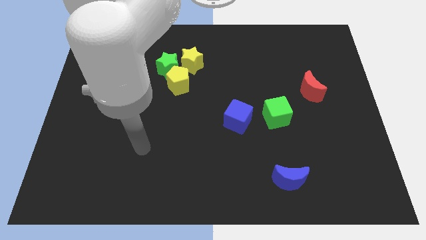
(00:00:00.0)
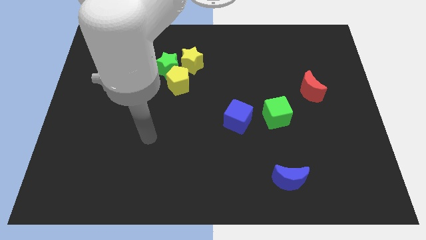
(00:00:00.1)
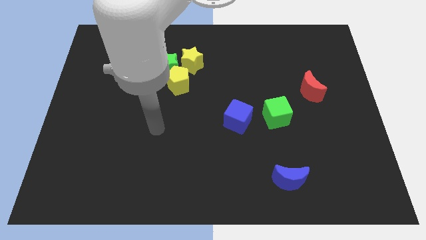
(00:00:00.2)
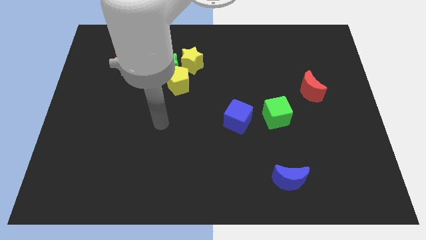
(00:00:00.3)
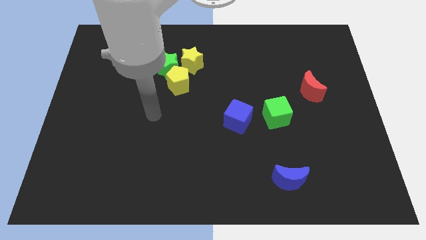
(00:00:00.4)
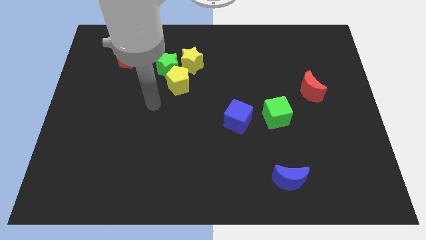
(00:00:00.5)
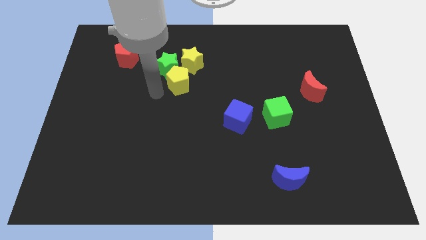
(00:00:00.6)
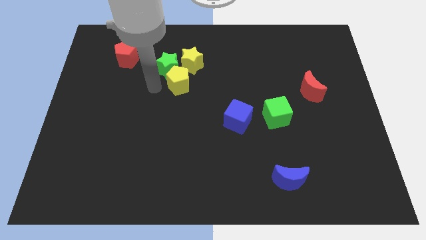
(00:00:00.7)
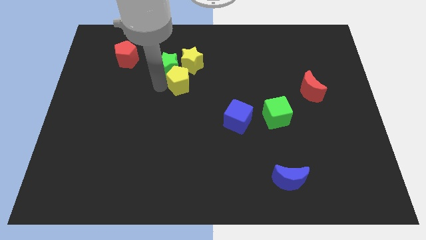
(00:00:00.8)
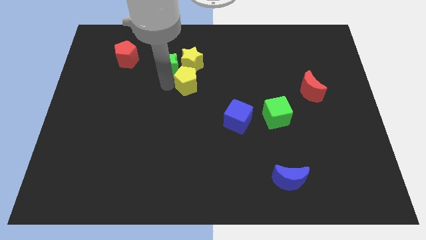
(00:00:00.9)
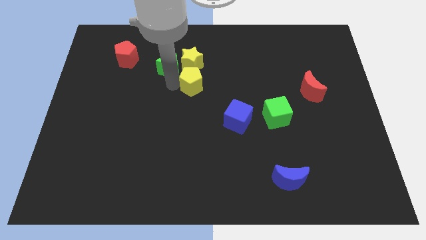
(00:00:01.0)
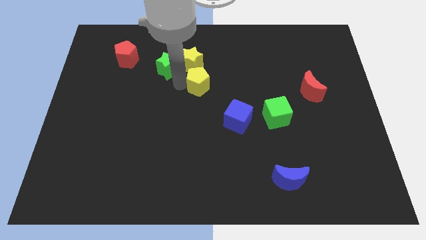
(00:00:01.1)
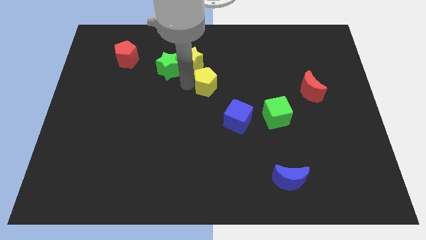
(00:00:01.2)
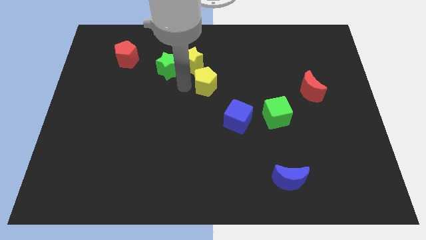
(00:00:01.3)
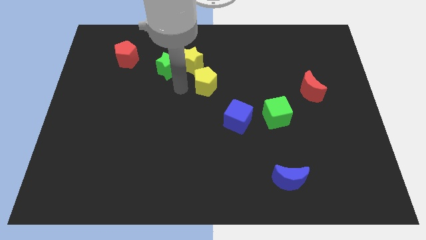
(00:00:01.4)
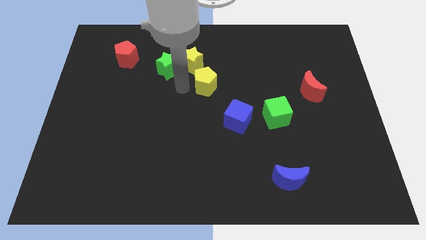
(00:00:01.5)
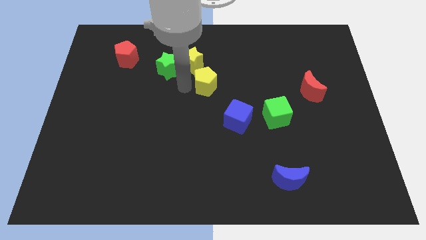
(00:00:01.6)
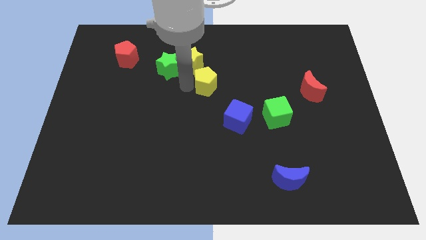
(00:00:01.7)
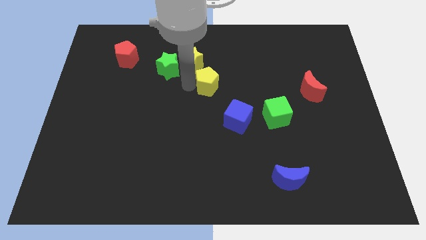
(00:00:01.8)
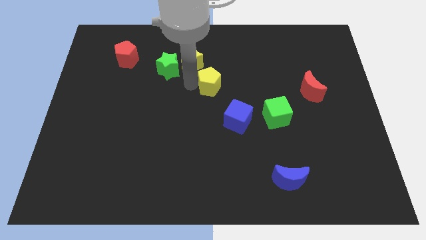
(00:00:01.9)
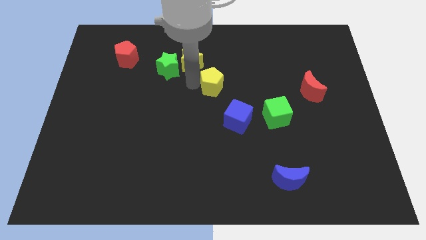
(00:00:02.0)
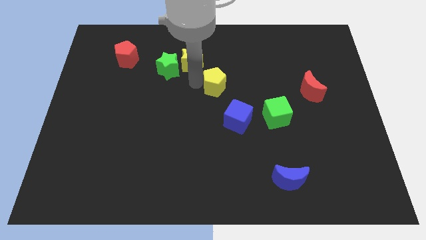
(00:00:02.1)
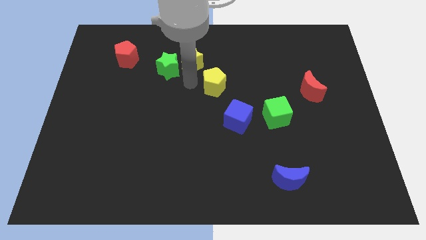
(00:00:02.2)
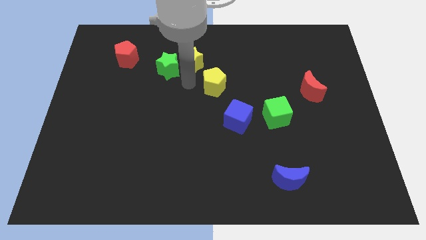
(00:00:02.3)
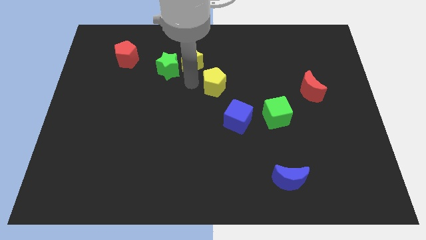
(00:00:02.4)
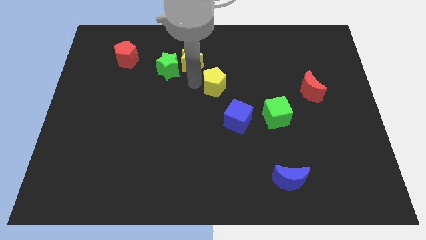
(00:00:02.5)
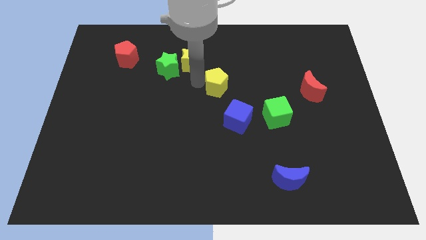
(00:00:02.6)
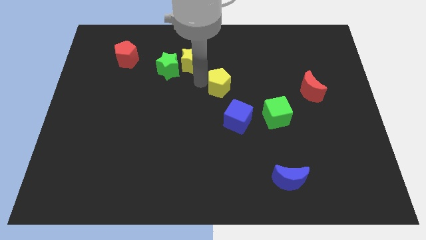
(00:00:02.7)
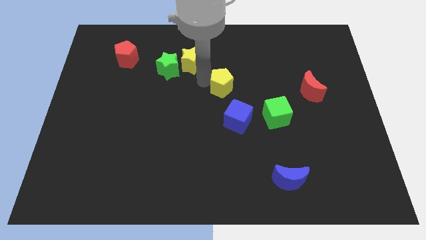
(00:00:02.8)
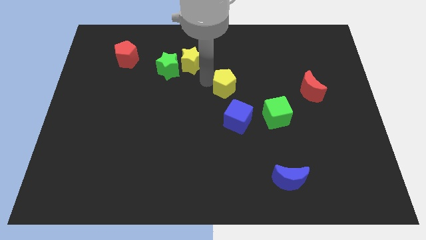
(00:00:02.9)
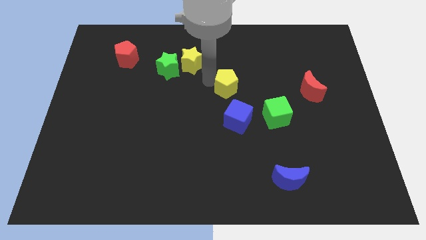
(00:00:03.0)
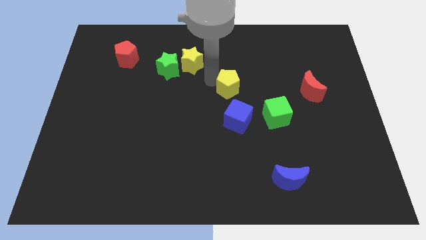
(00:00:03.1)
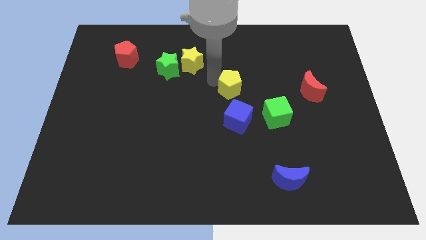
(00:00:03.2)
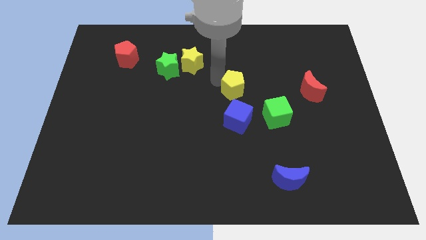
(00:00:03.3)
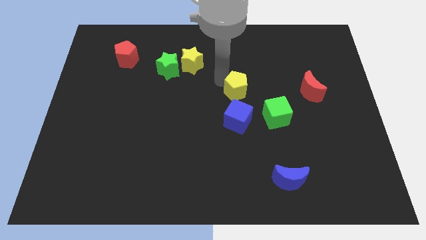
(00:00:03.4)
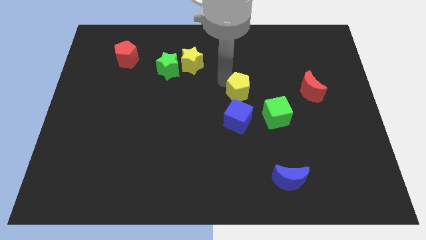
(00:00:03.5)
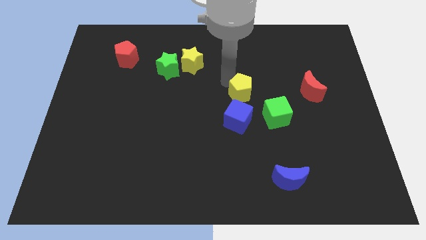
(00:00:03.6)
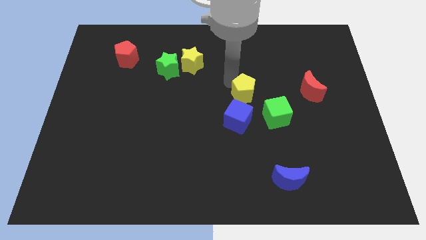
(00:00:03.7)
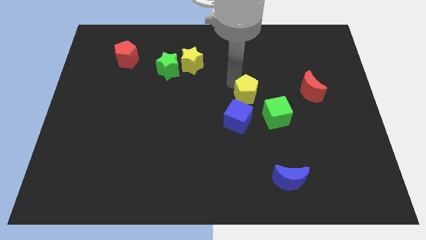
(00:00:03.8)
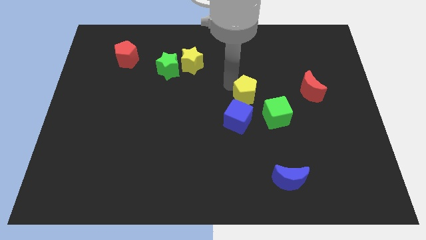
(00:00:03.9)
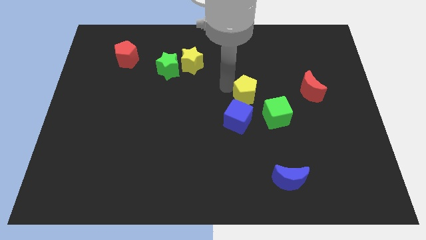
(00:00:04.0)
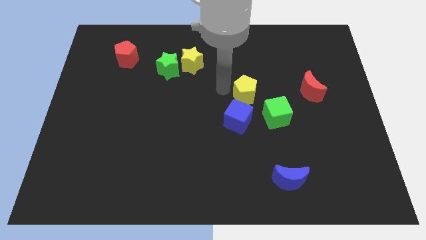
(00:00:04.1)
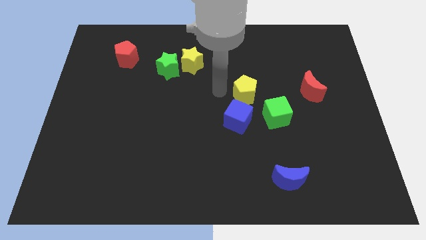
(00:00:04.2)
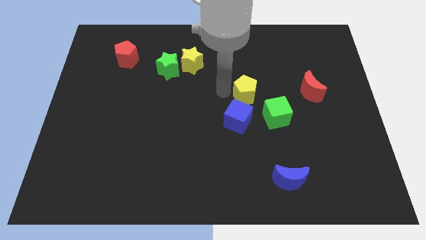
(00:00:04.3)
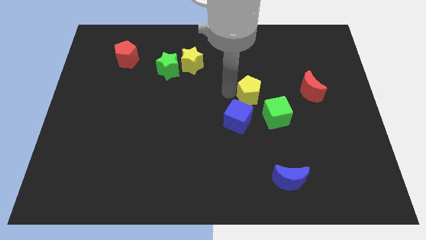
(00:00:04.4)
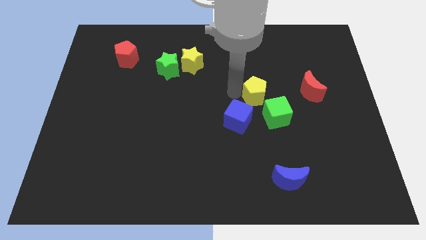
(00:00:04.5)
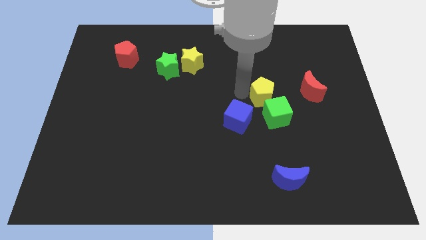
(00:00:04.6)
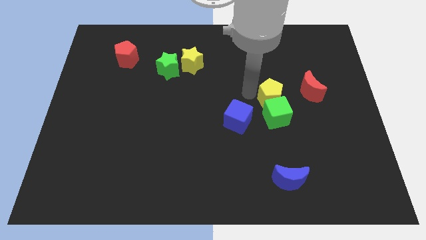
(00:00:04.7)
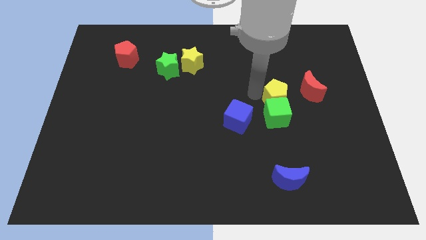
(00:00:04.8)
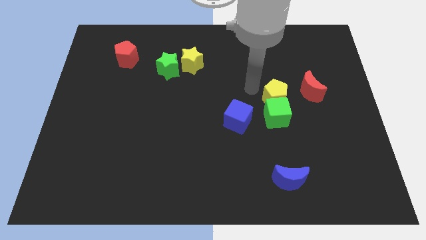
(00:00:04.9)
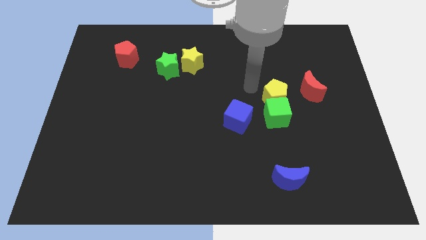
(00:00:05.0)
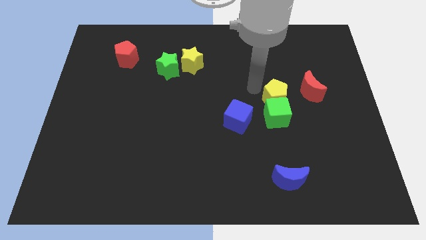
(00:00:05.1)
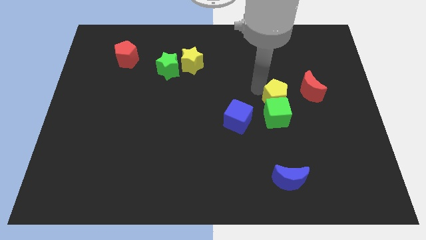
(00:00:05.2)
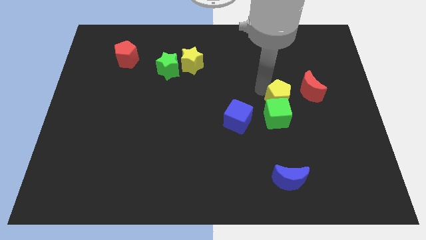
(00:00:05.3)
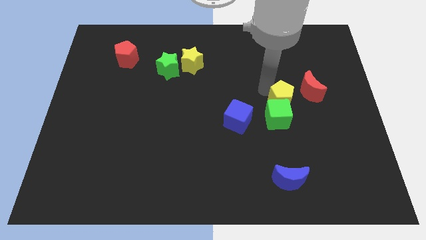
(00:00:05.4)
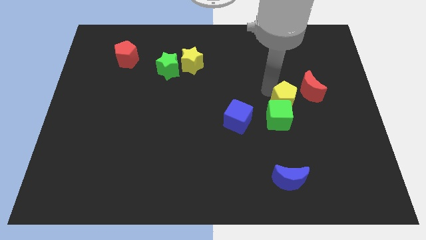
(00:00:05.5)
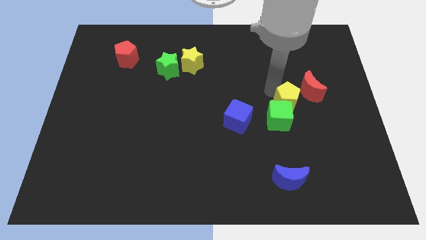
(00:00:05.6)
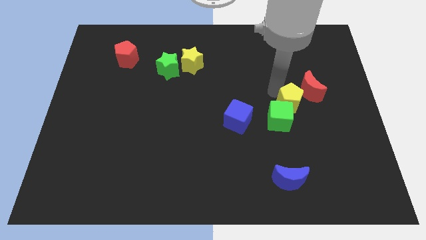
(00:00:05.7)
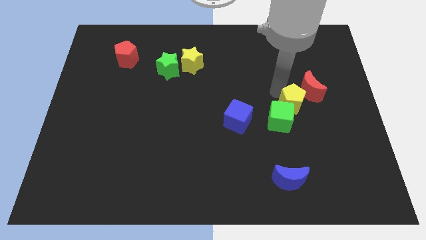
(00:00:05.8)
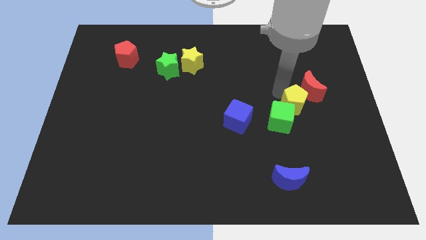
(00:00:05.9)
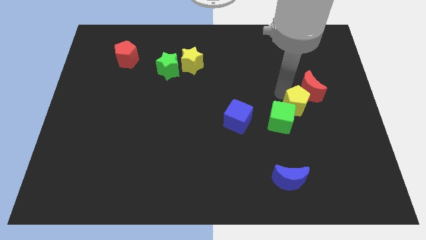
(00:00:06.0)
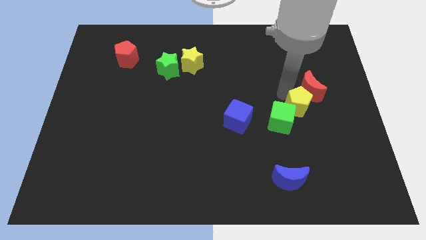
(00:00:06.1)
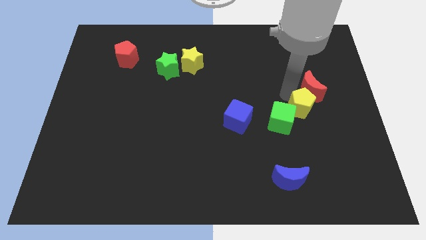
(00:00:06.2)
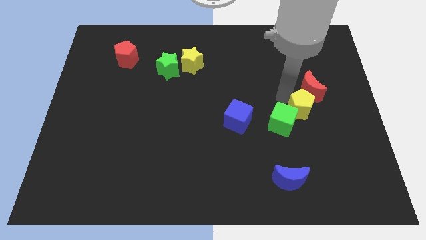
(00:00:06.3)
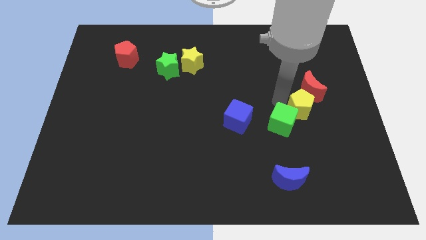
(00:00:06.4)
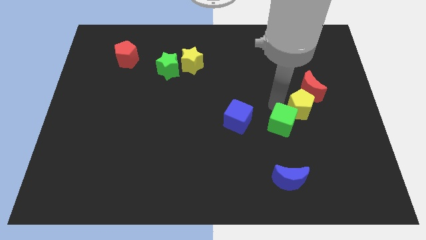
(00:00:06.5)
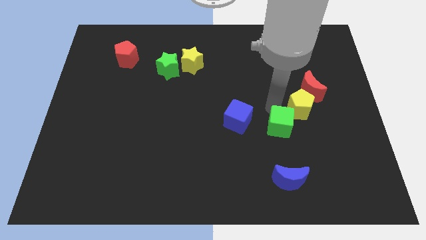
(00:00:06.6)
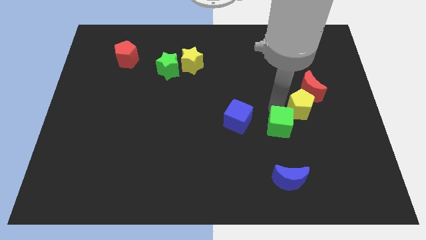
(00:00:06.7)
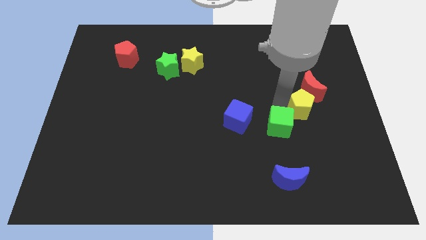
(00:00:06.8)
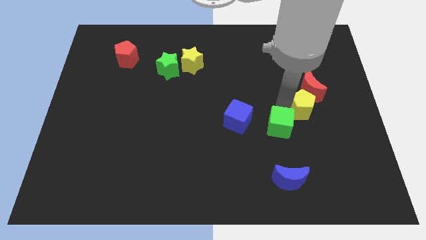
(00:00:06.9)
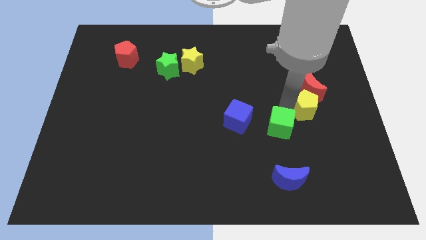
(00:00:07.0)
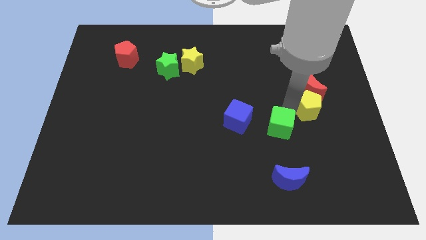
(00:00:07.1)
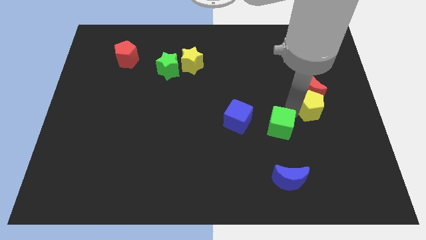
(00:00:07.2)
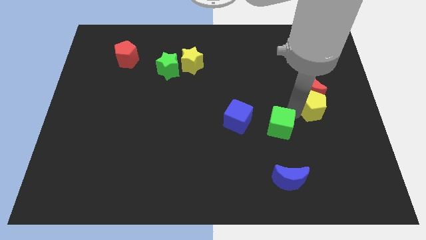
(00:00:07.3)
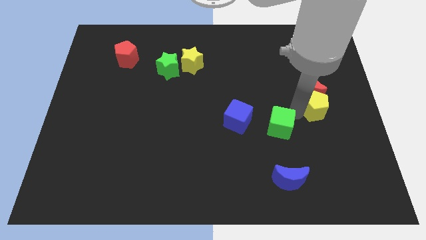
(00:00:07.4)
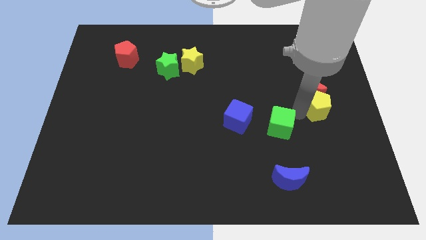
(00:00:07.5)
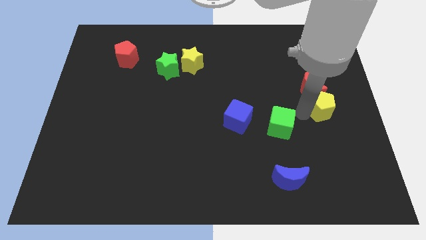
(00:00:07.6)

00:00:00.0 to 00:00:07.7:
push the yellow pentagon to the right side
